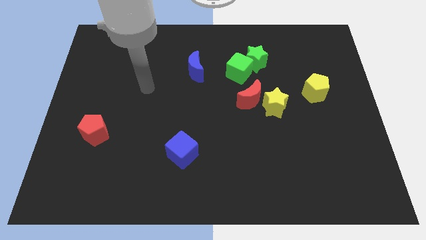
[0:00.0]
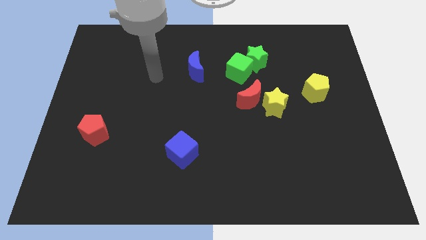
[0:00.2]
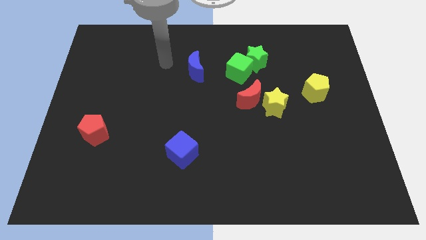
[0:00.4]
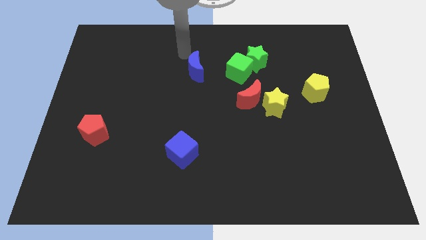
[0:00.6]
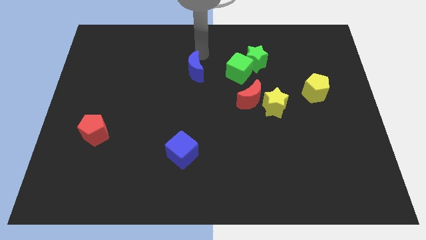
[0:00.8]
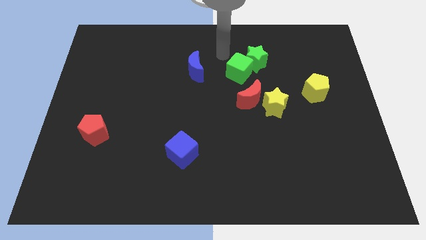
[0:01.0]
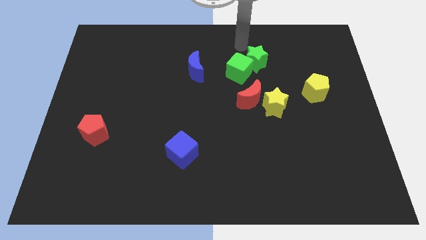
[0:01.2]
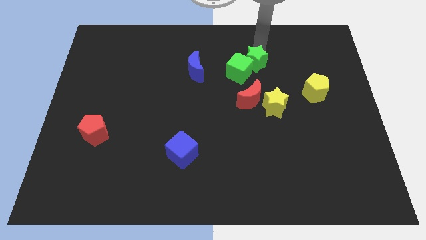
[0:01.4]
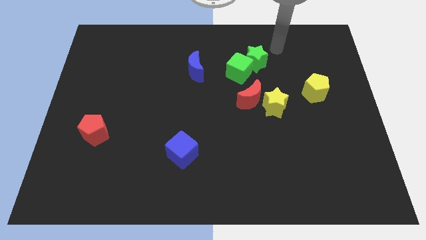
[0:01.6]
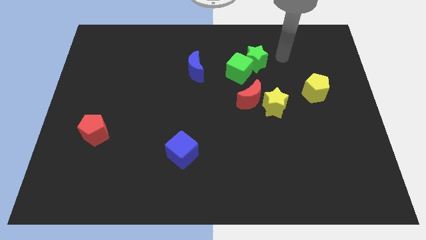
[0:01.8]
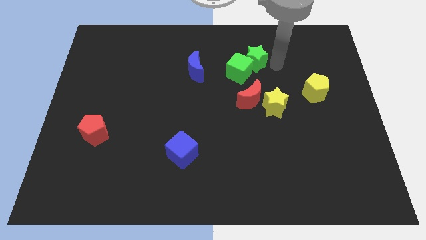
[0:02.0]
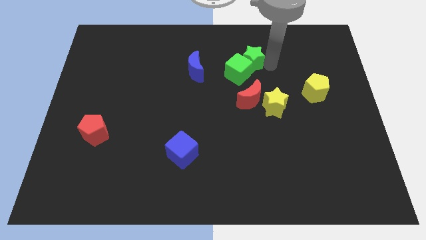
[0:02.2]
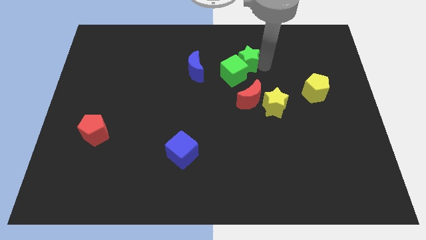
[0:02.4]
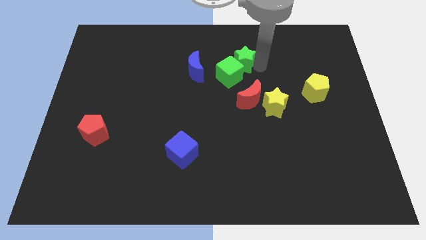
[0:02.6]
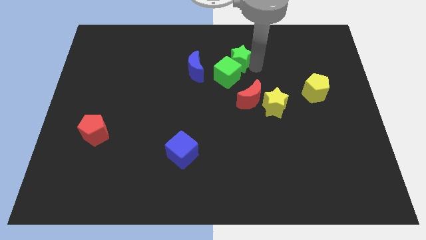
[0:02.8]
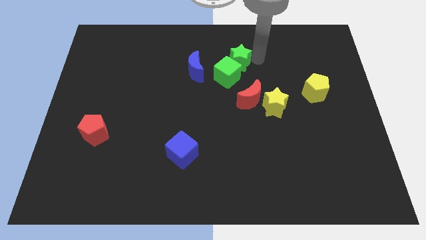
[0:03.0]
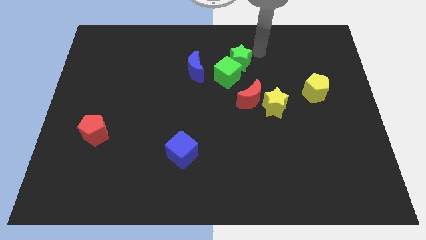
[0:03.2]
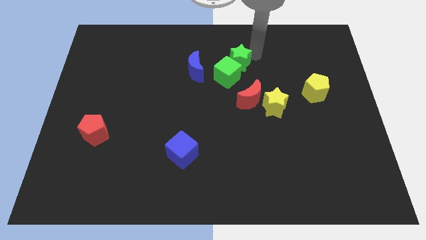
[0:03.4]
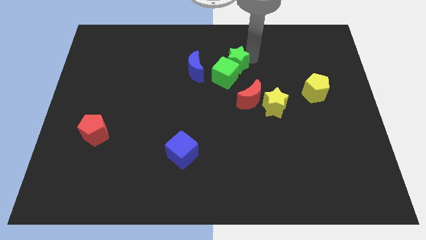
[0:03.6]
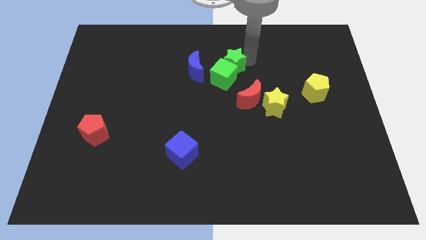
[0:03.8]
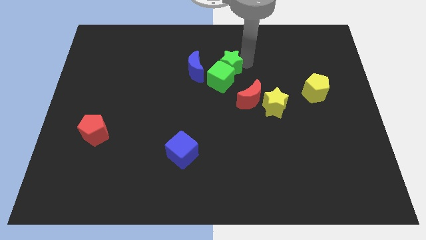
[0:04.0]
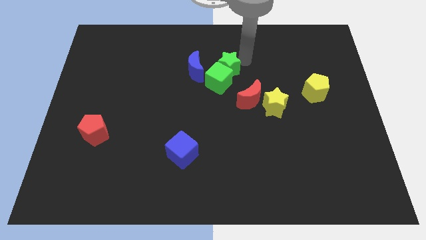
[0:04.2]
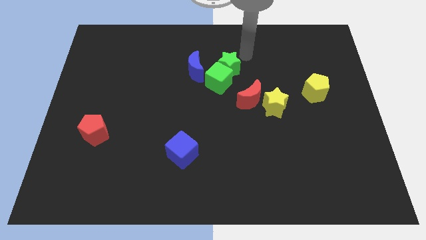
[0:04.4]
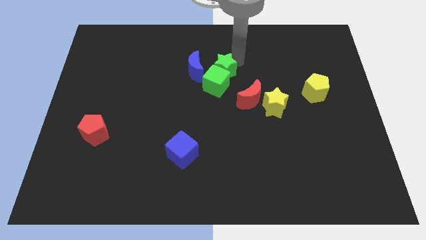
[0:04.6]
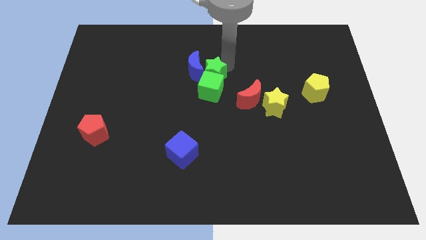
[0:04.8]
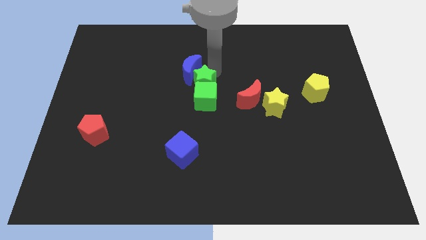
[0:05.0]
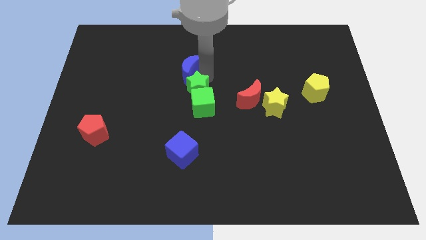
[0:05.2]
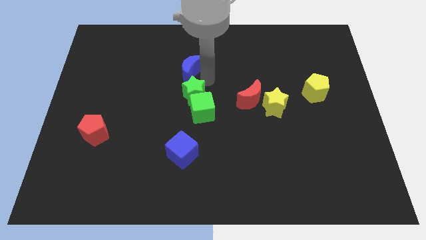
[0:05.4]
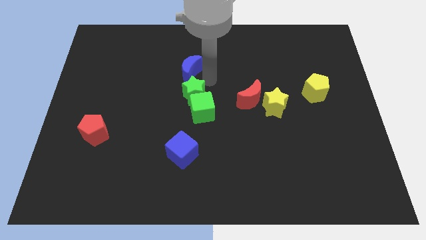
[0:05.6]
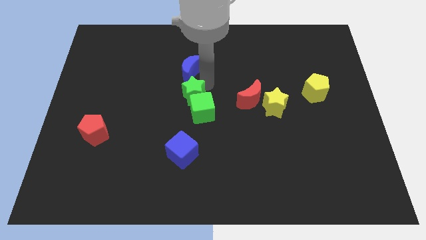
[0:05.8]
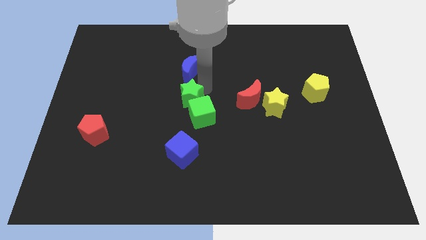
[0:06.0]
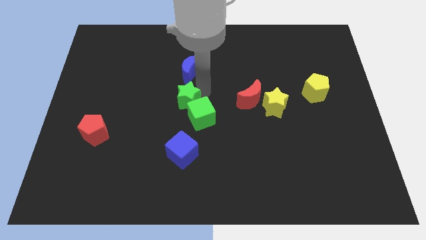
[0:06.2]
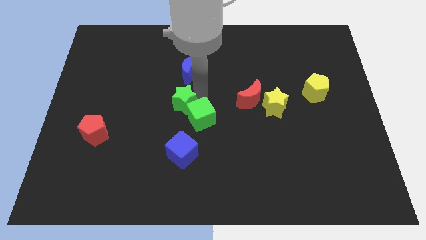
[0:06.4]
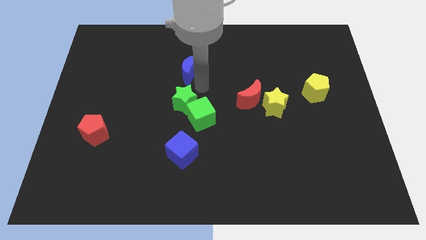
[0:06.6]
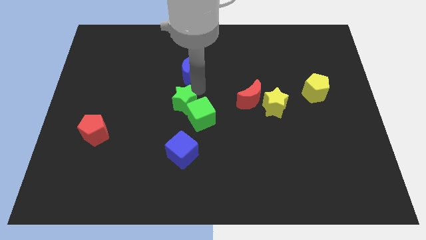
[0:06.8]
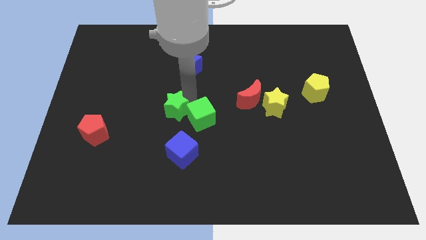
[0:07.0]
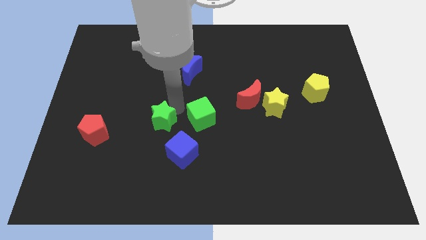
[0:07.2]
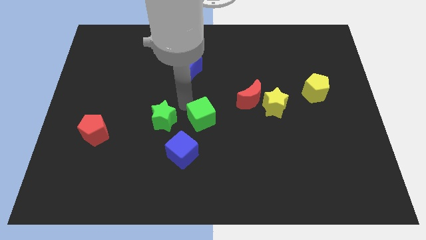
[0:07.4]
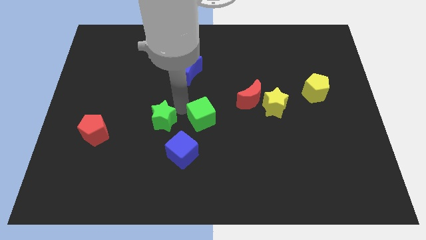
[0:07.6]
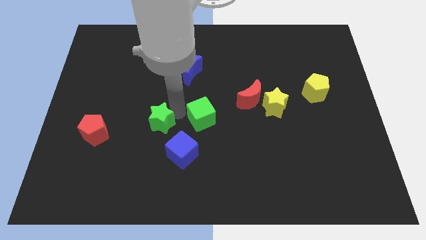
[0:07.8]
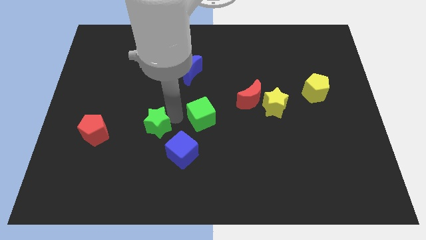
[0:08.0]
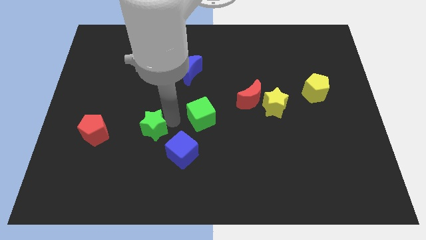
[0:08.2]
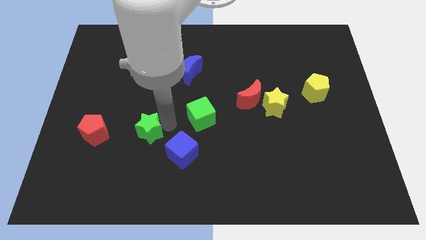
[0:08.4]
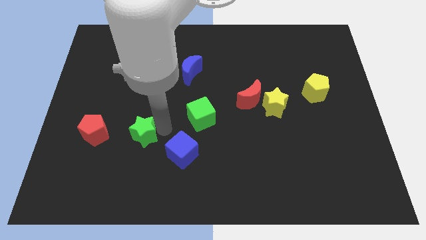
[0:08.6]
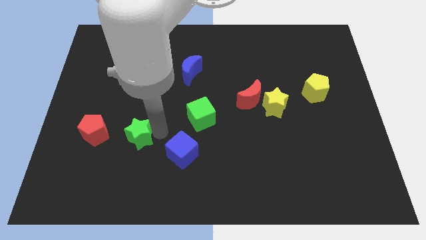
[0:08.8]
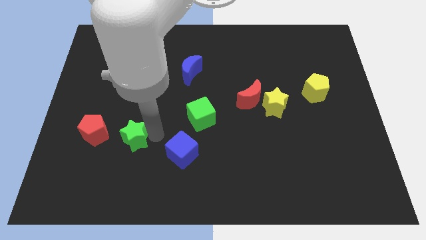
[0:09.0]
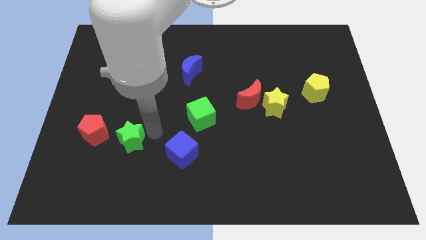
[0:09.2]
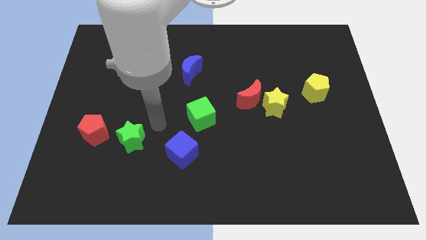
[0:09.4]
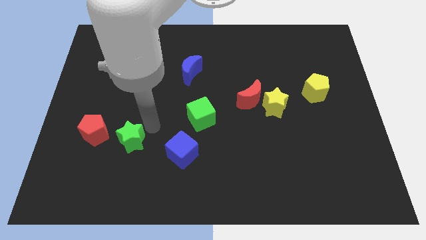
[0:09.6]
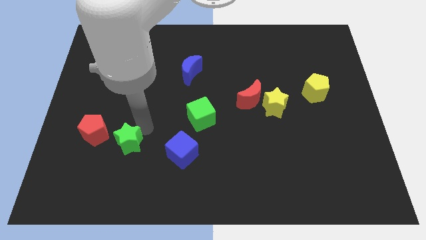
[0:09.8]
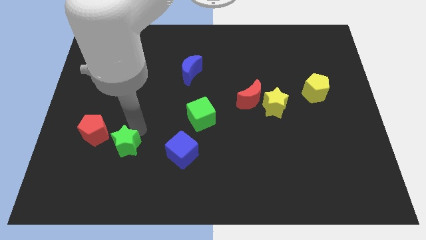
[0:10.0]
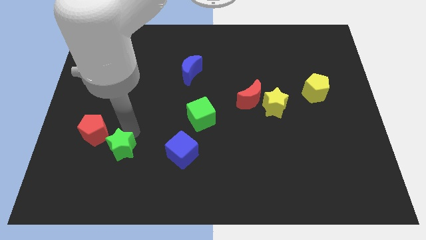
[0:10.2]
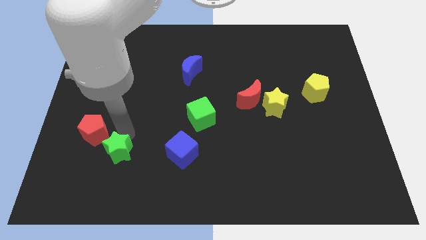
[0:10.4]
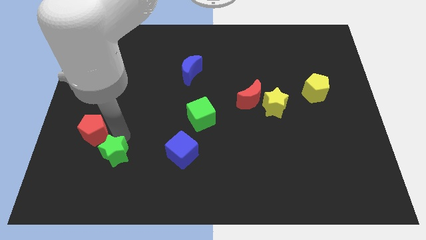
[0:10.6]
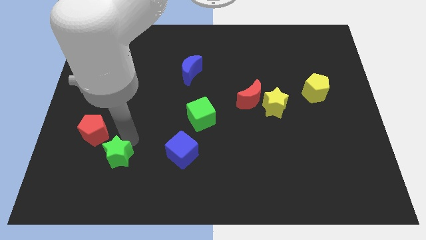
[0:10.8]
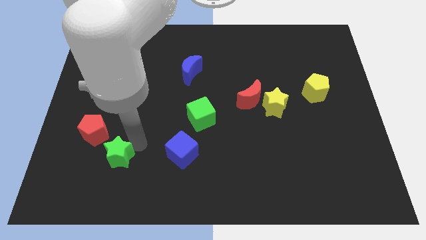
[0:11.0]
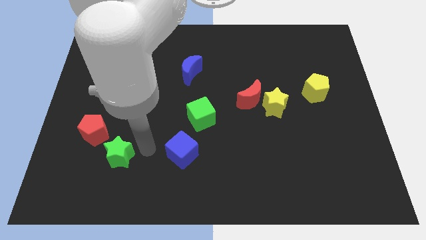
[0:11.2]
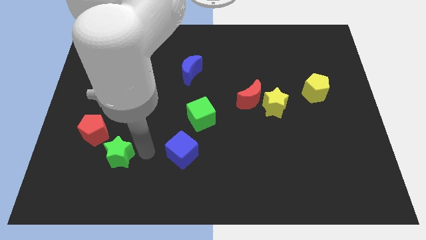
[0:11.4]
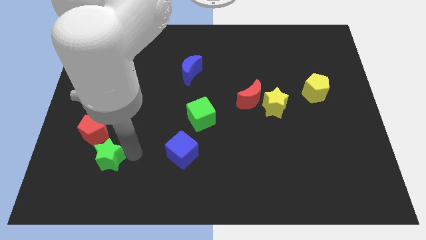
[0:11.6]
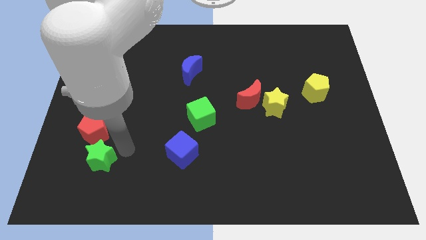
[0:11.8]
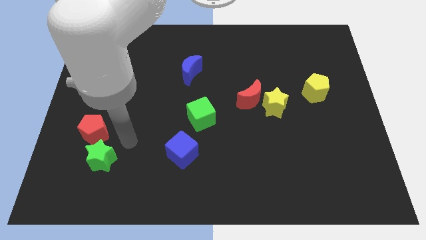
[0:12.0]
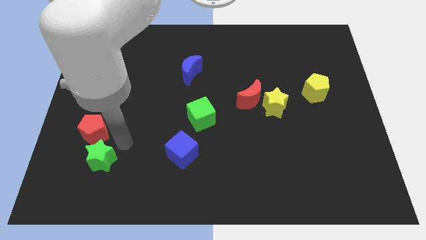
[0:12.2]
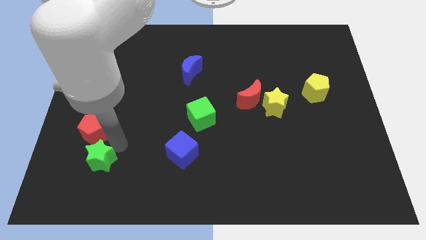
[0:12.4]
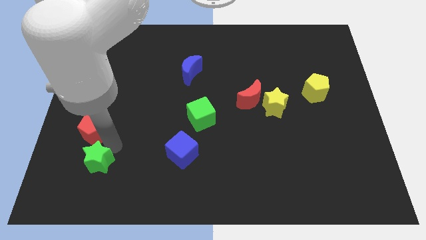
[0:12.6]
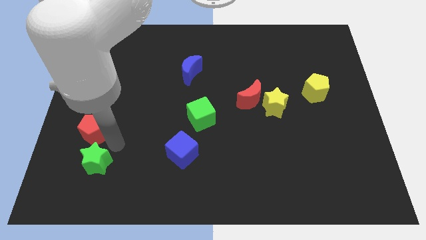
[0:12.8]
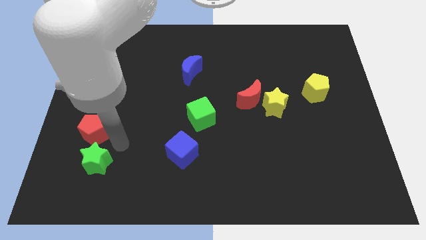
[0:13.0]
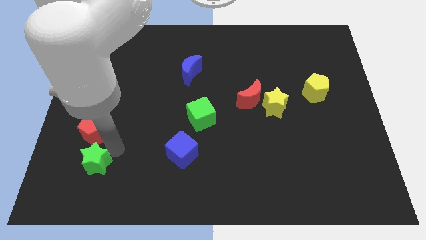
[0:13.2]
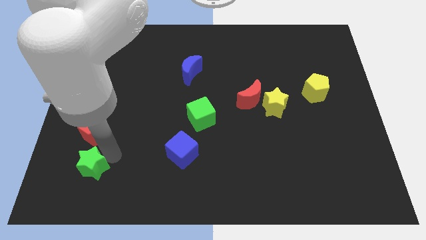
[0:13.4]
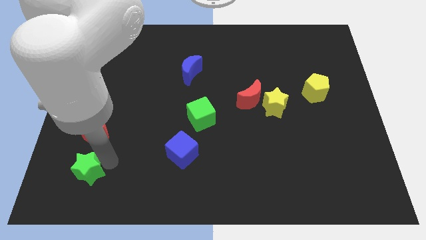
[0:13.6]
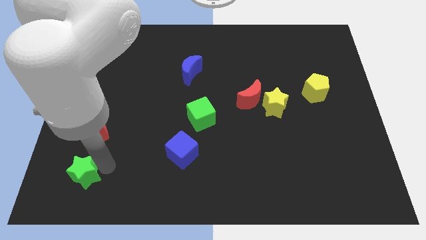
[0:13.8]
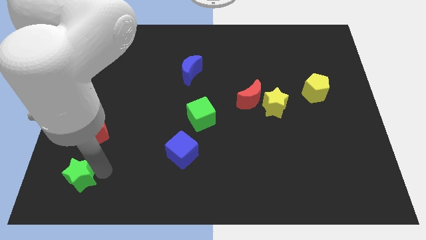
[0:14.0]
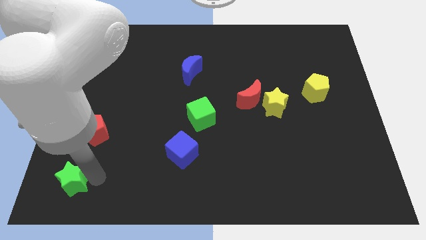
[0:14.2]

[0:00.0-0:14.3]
push the green star to the bottom left corner

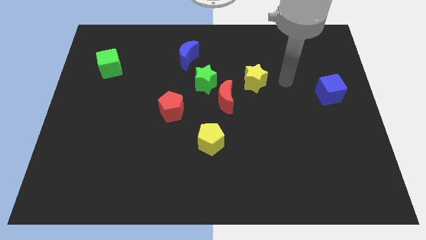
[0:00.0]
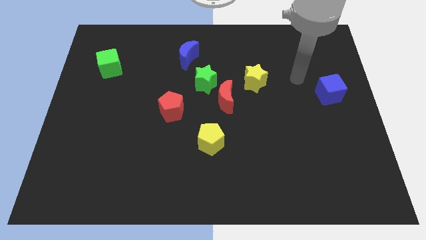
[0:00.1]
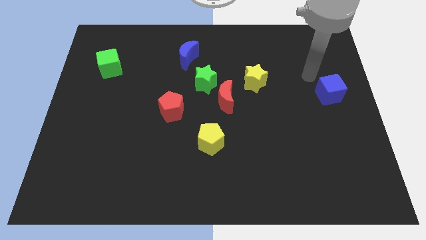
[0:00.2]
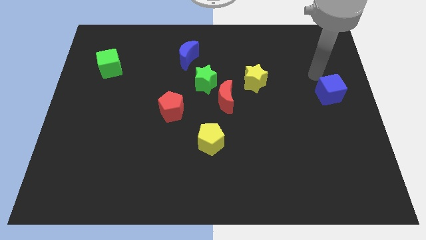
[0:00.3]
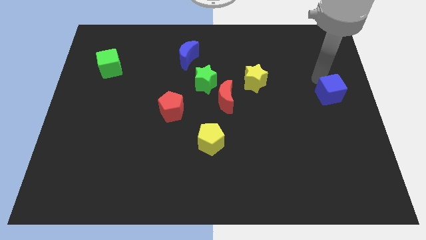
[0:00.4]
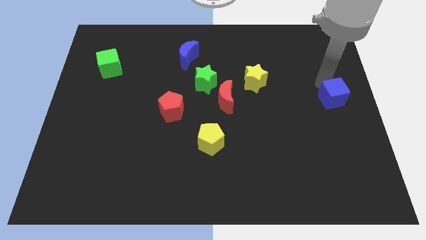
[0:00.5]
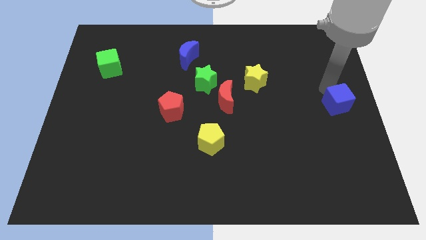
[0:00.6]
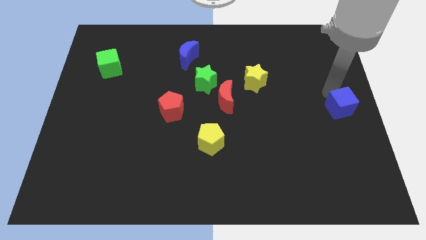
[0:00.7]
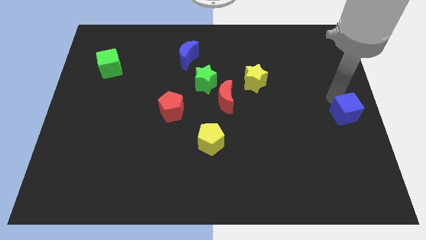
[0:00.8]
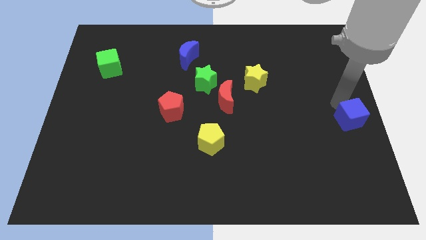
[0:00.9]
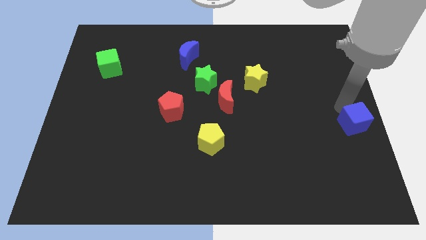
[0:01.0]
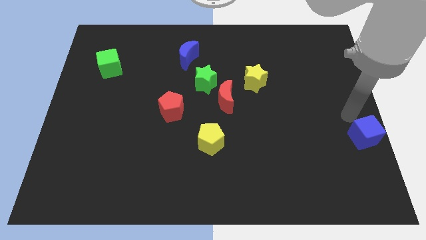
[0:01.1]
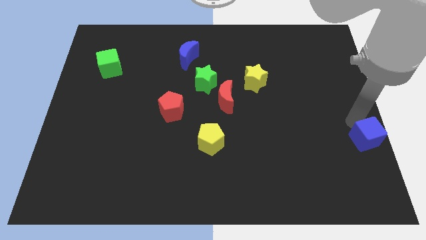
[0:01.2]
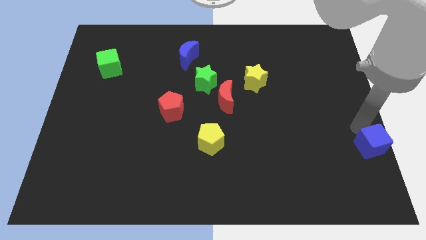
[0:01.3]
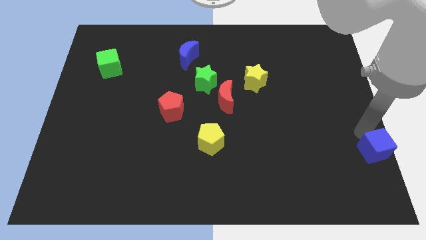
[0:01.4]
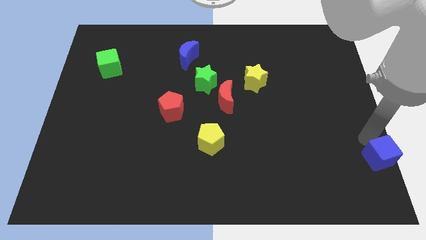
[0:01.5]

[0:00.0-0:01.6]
put the blue cube to the bottom right corner
